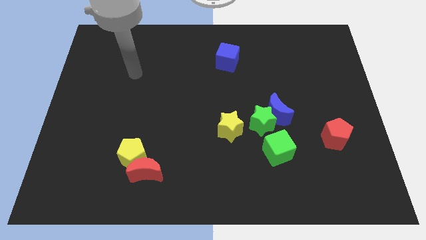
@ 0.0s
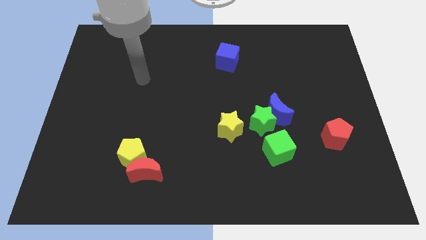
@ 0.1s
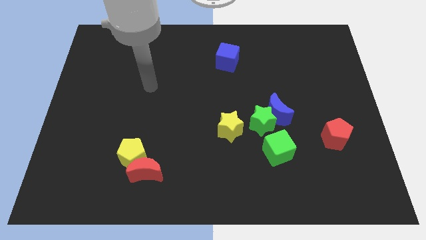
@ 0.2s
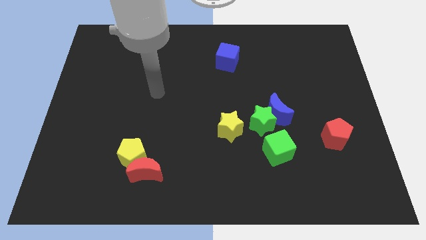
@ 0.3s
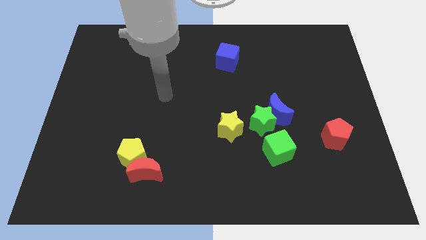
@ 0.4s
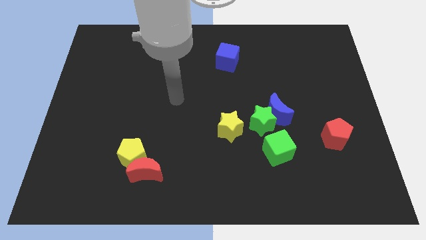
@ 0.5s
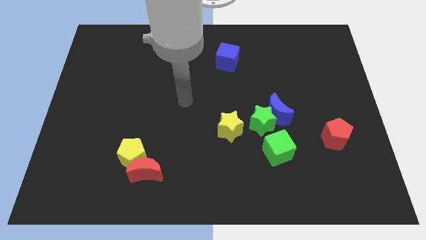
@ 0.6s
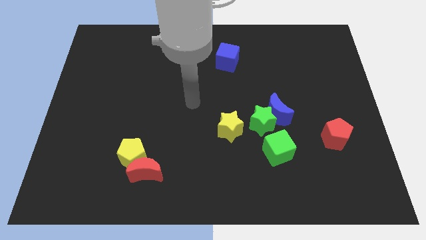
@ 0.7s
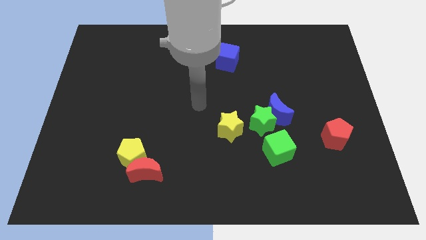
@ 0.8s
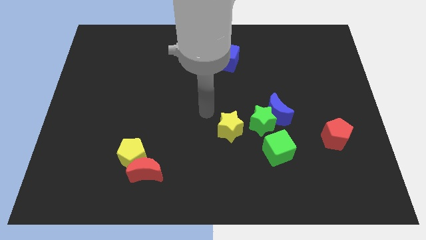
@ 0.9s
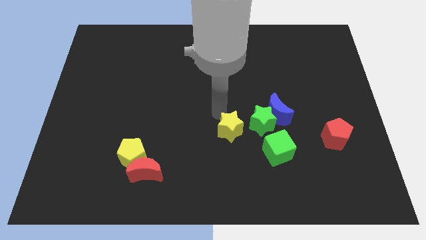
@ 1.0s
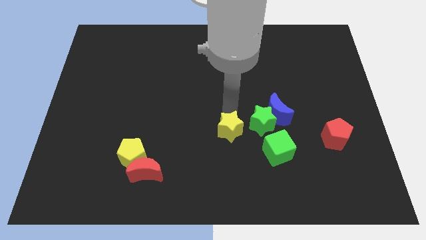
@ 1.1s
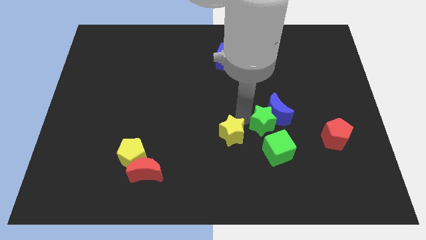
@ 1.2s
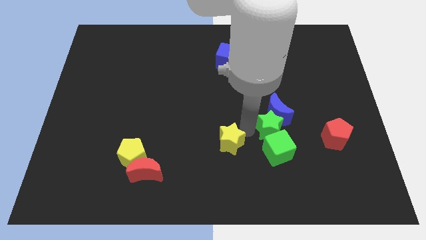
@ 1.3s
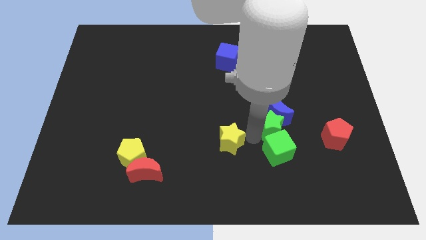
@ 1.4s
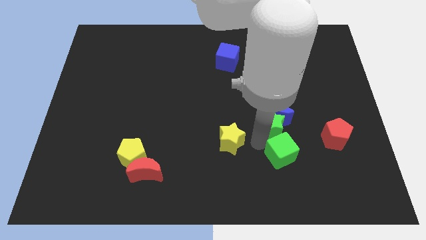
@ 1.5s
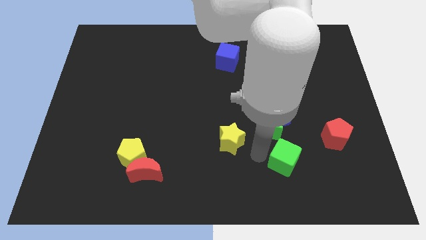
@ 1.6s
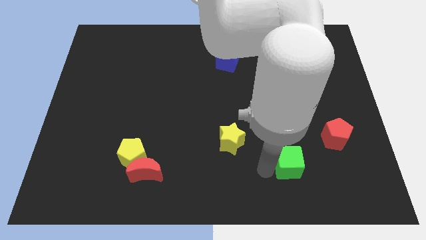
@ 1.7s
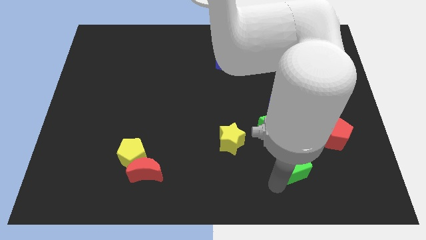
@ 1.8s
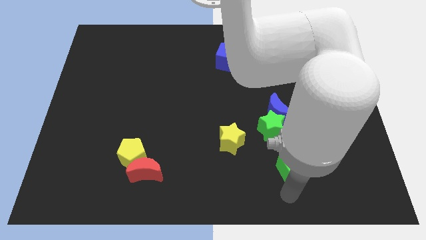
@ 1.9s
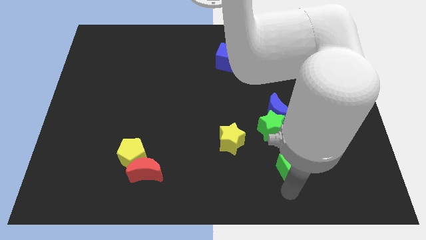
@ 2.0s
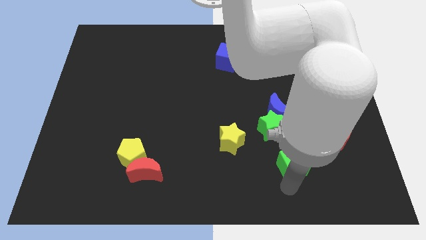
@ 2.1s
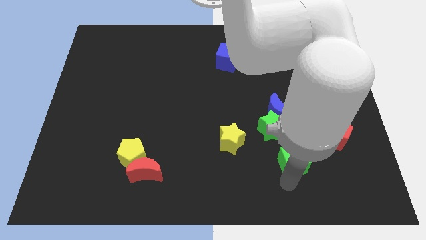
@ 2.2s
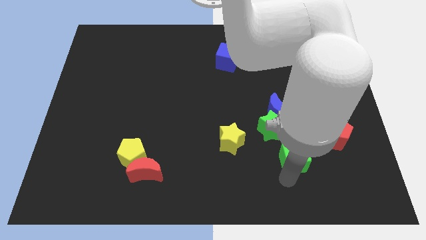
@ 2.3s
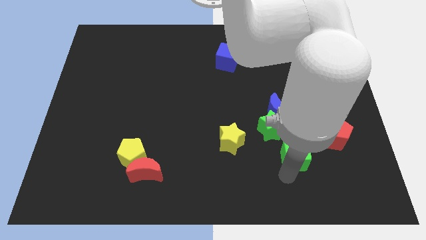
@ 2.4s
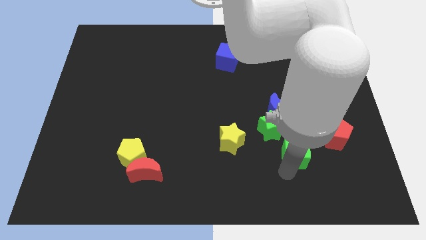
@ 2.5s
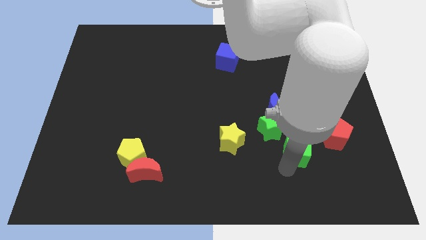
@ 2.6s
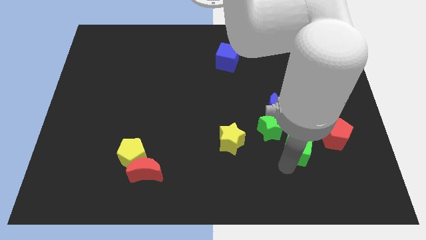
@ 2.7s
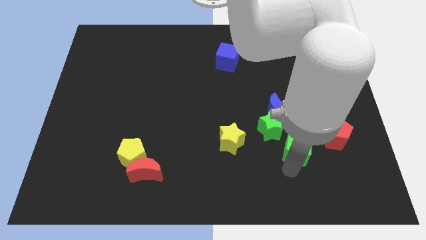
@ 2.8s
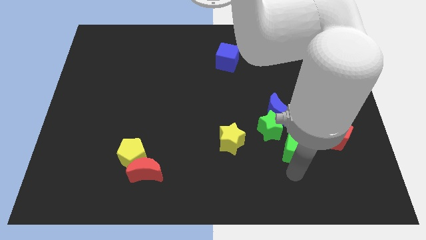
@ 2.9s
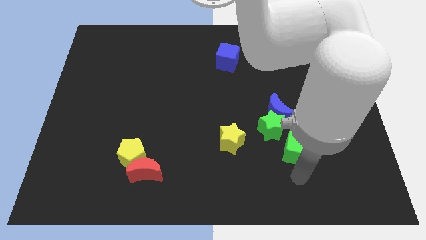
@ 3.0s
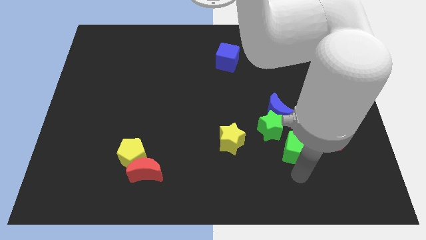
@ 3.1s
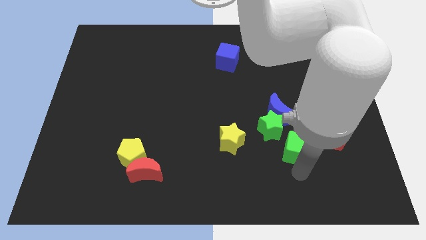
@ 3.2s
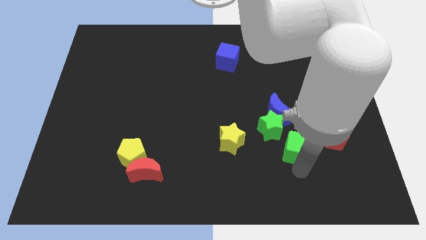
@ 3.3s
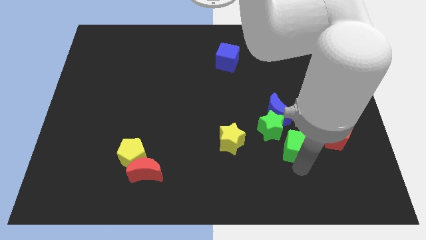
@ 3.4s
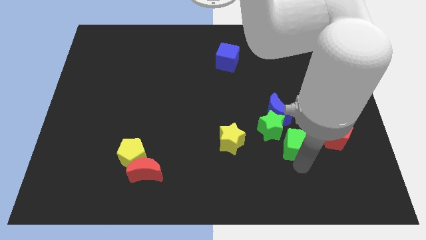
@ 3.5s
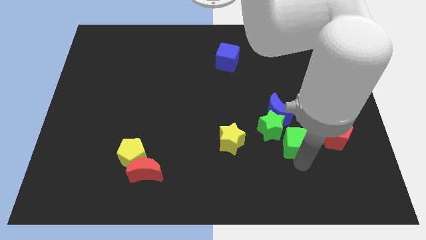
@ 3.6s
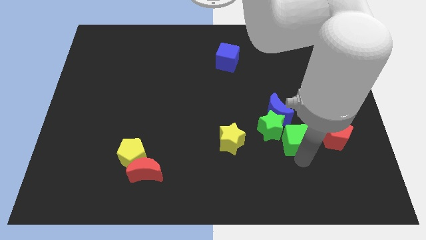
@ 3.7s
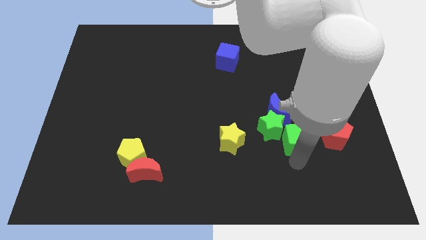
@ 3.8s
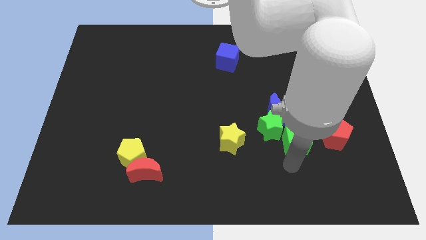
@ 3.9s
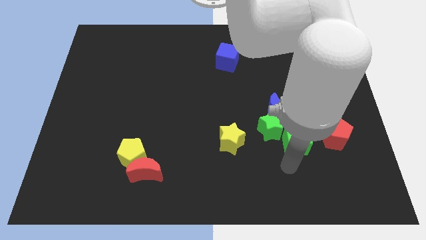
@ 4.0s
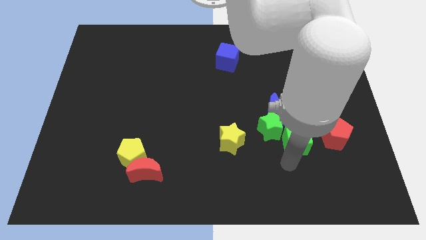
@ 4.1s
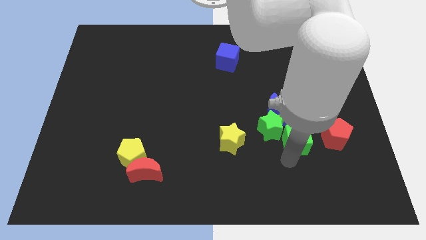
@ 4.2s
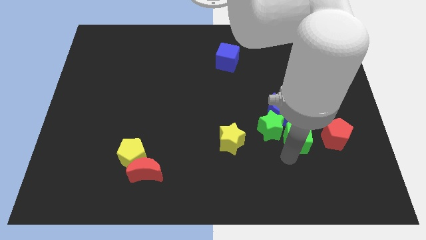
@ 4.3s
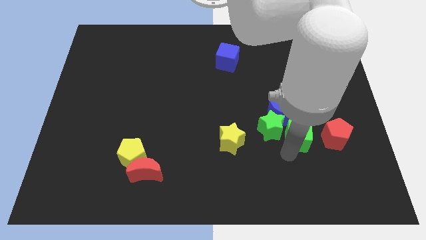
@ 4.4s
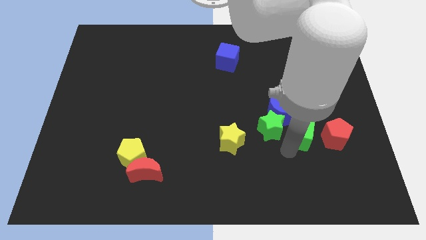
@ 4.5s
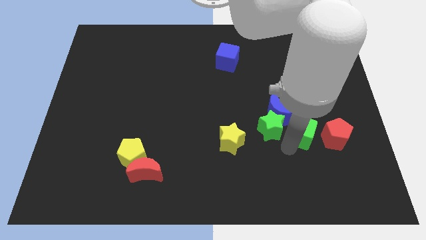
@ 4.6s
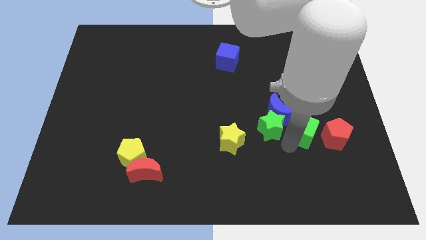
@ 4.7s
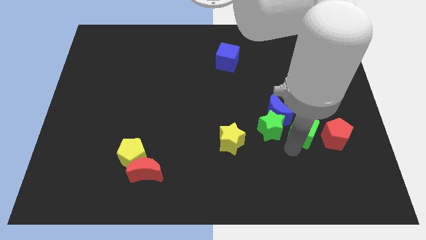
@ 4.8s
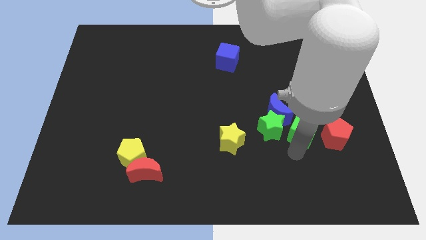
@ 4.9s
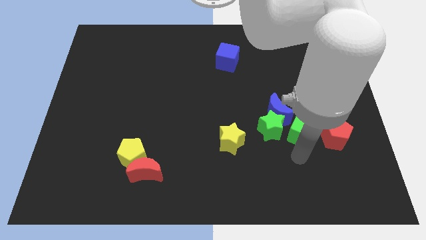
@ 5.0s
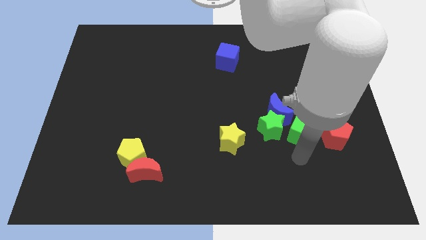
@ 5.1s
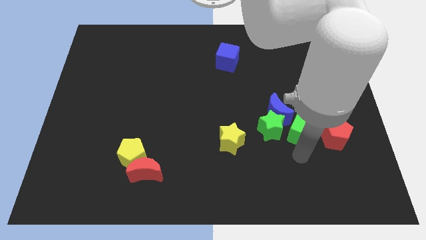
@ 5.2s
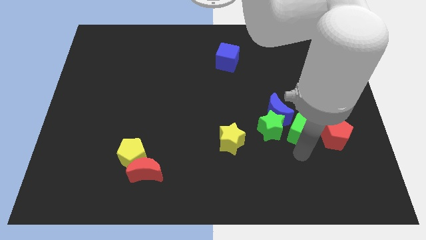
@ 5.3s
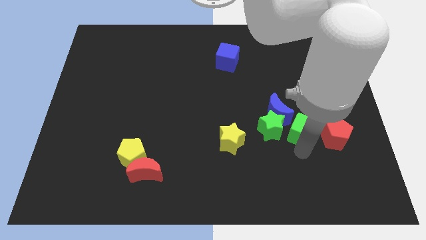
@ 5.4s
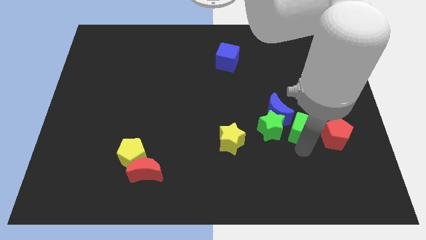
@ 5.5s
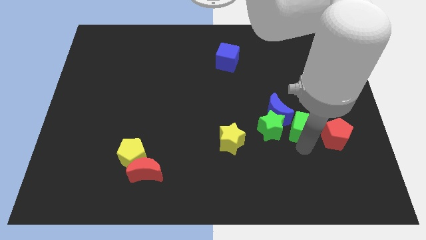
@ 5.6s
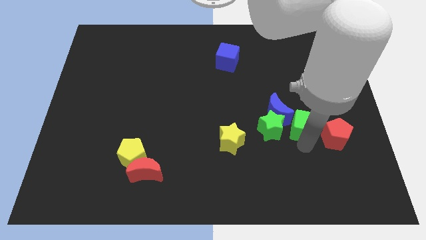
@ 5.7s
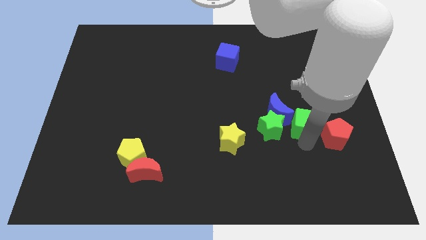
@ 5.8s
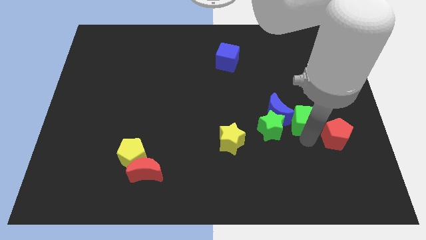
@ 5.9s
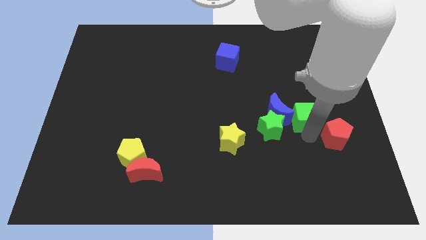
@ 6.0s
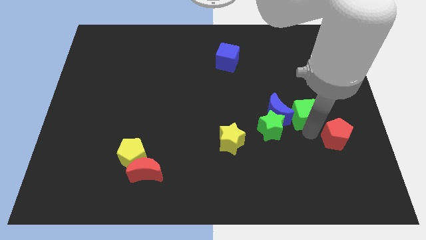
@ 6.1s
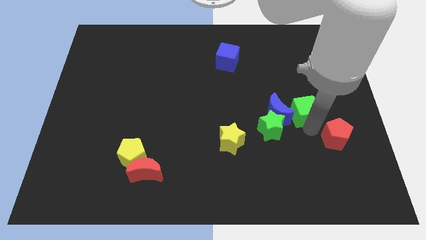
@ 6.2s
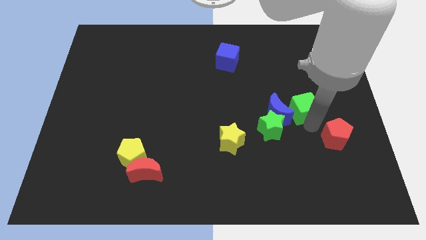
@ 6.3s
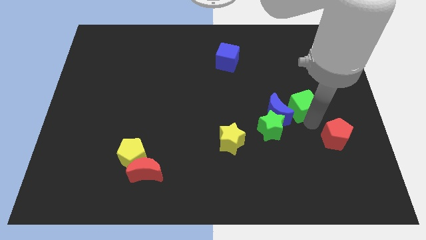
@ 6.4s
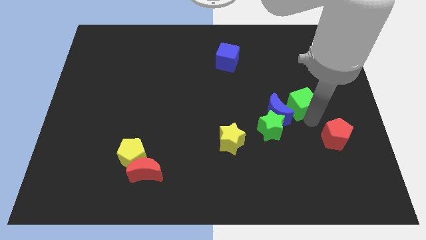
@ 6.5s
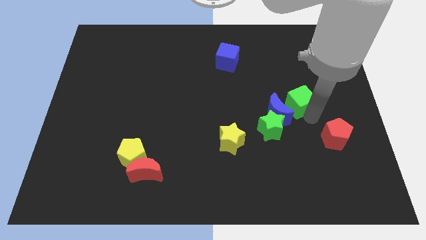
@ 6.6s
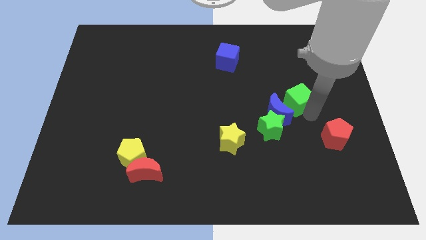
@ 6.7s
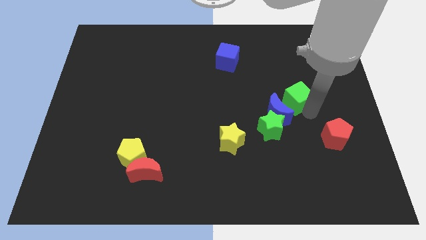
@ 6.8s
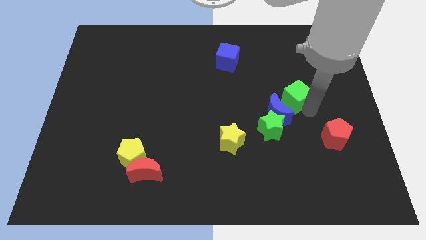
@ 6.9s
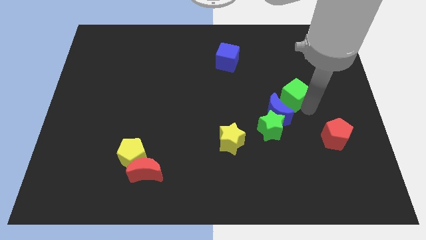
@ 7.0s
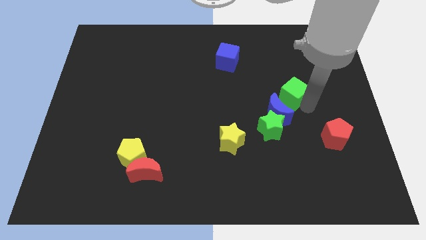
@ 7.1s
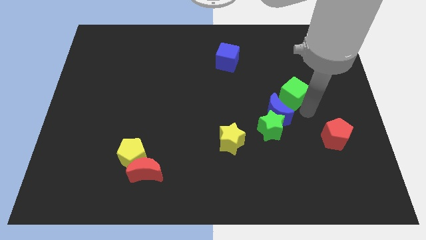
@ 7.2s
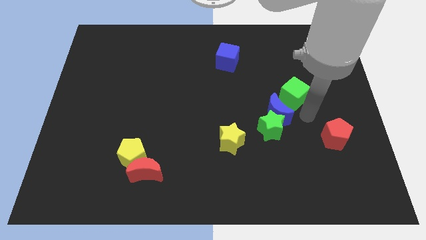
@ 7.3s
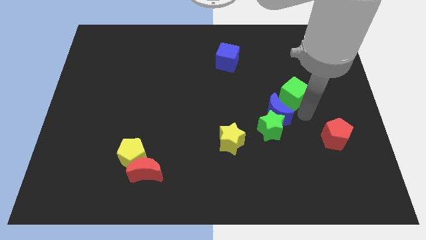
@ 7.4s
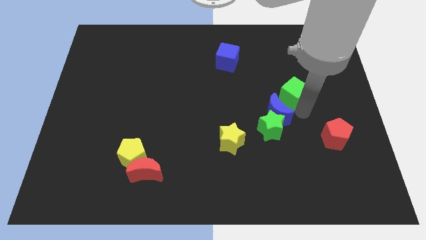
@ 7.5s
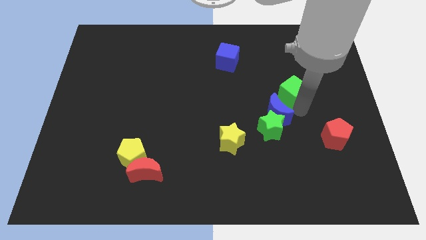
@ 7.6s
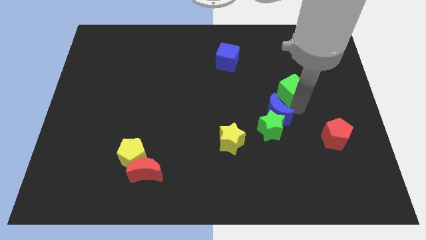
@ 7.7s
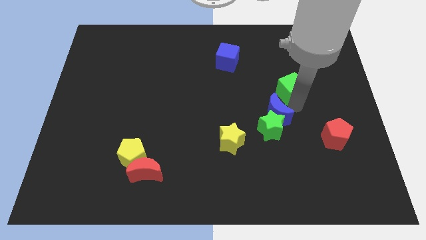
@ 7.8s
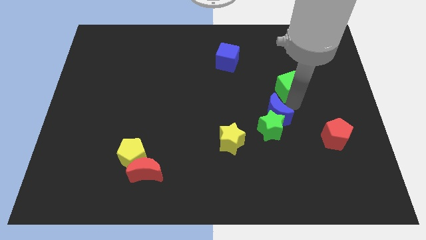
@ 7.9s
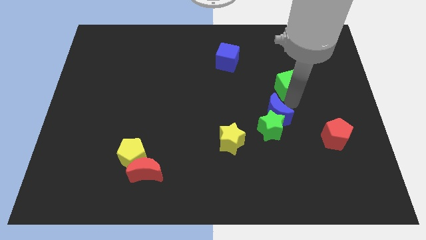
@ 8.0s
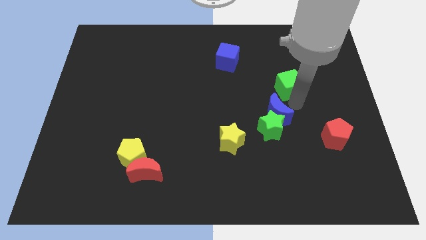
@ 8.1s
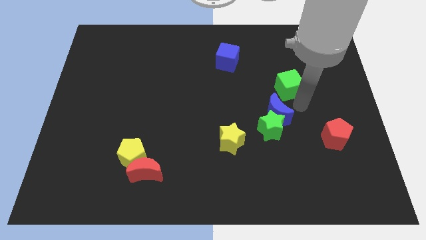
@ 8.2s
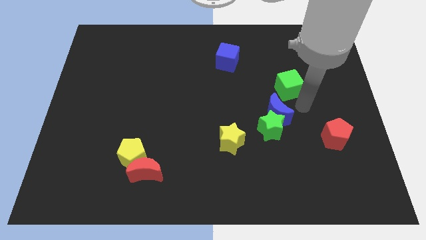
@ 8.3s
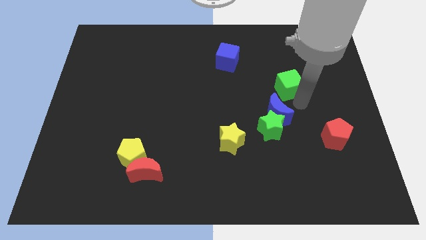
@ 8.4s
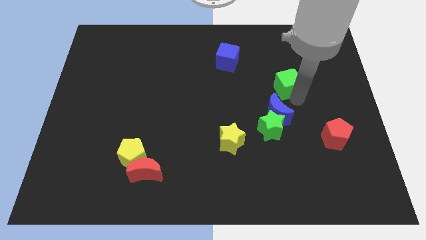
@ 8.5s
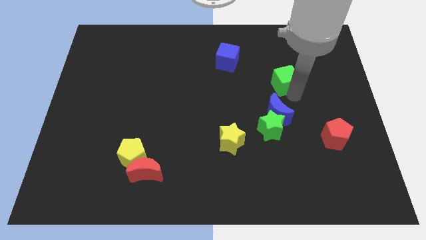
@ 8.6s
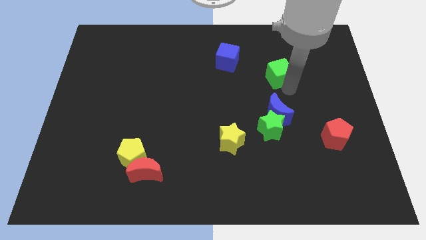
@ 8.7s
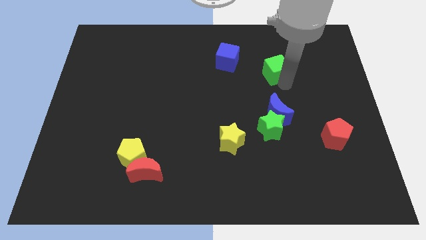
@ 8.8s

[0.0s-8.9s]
put the green cube right of the blue cube

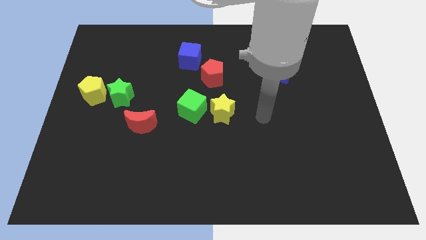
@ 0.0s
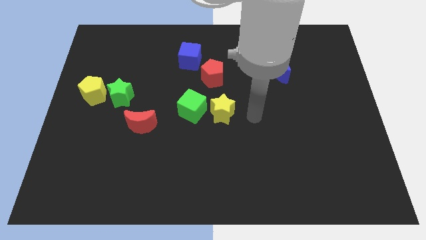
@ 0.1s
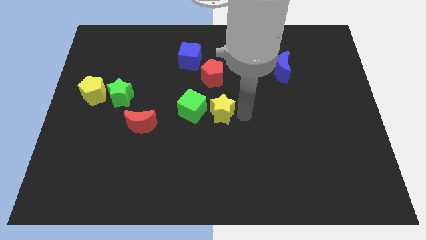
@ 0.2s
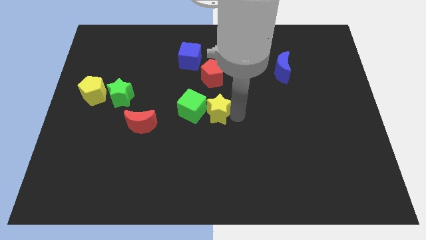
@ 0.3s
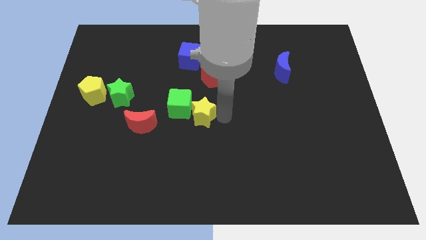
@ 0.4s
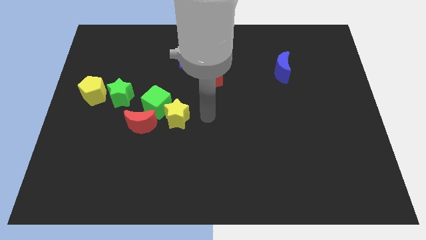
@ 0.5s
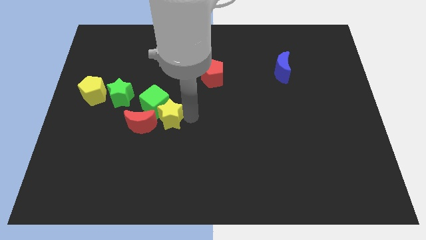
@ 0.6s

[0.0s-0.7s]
push the green cube to the right of the yellow pentagon
